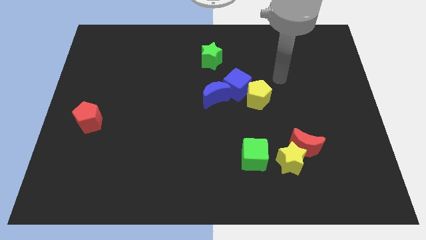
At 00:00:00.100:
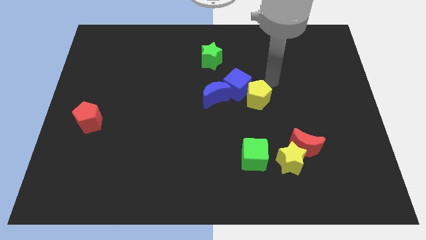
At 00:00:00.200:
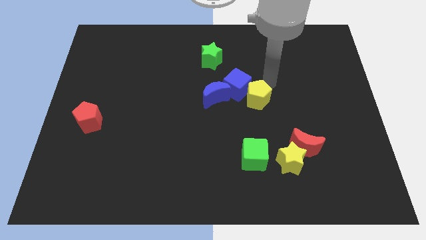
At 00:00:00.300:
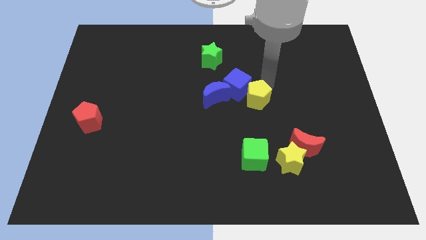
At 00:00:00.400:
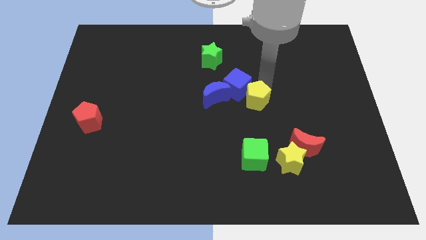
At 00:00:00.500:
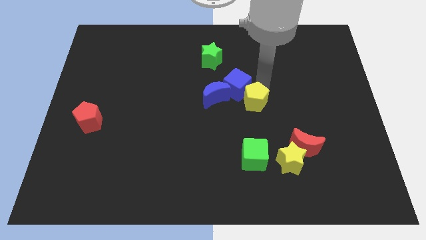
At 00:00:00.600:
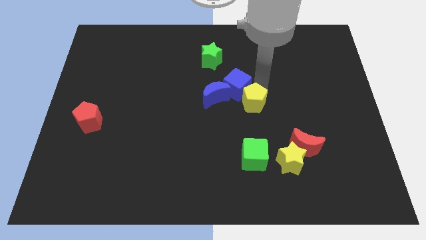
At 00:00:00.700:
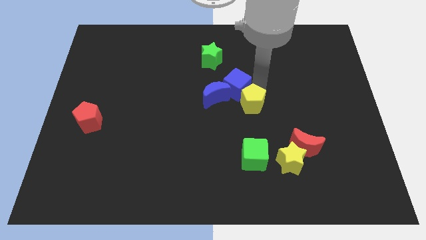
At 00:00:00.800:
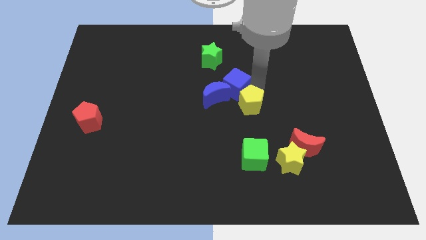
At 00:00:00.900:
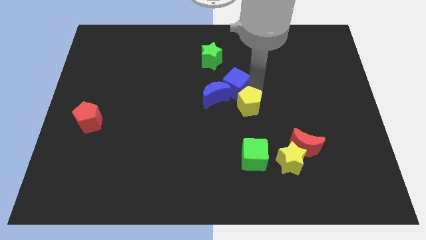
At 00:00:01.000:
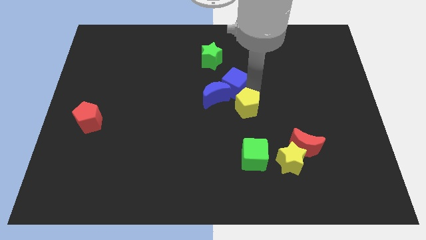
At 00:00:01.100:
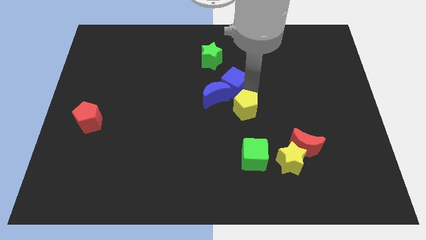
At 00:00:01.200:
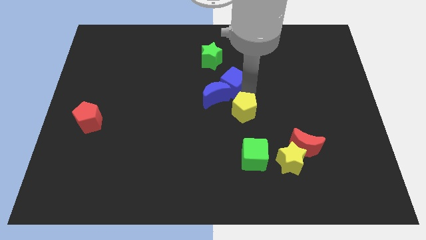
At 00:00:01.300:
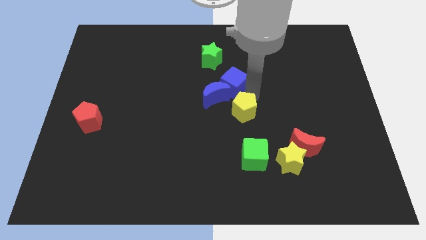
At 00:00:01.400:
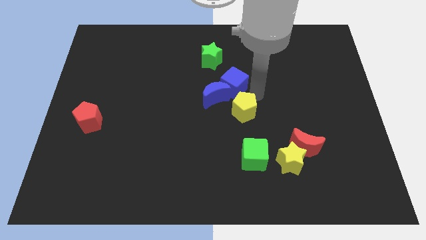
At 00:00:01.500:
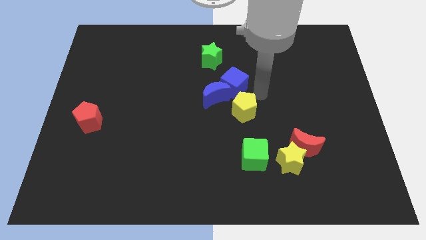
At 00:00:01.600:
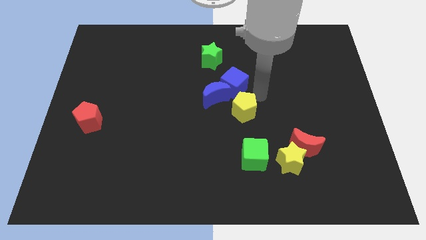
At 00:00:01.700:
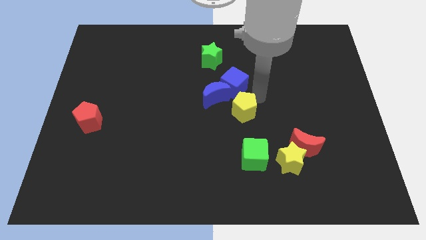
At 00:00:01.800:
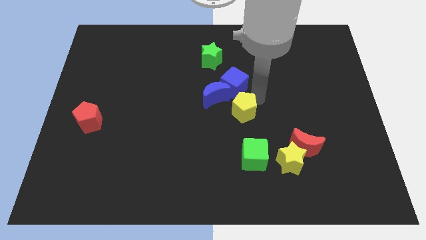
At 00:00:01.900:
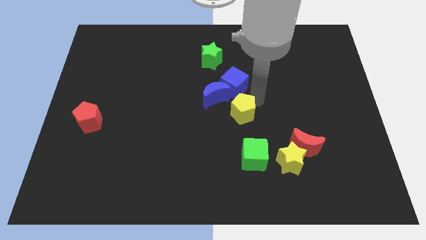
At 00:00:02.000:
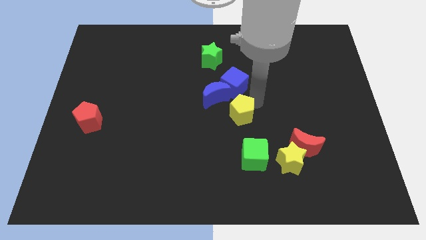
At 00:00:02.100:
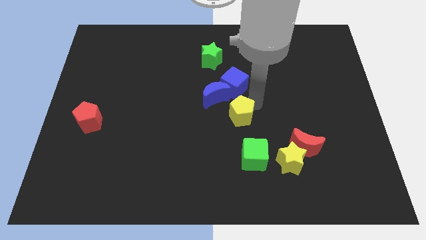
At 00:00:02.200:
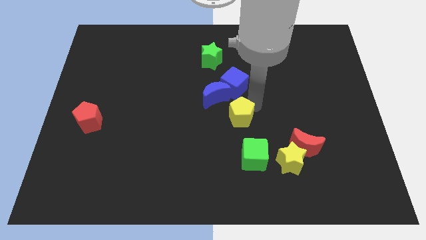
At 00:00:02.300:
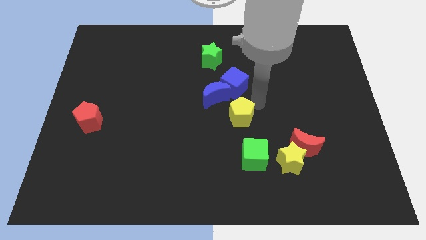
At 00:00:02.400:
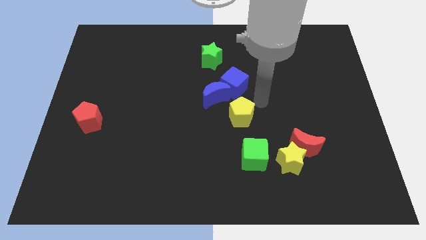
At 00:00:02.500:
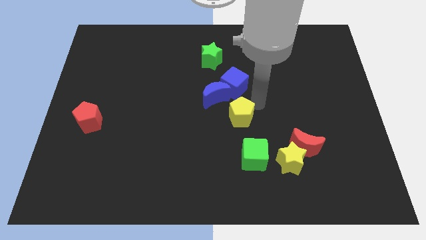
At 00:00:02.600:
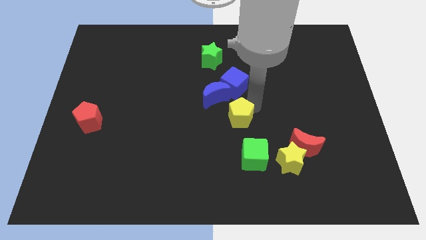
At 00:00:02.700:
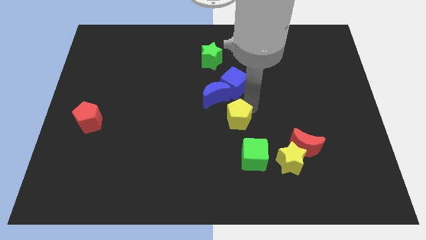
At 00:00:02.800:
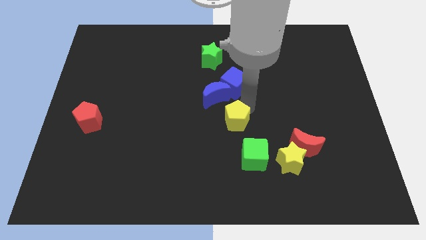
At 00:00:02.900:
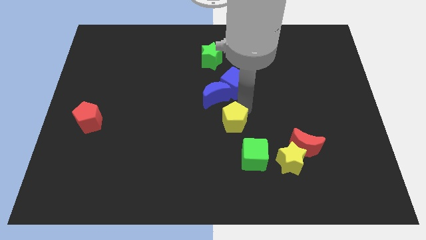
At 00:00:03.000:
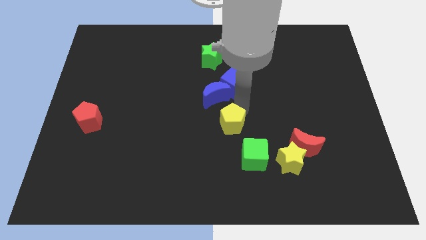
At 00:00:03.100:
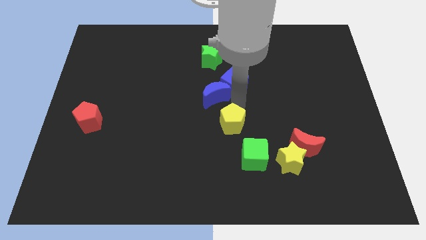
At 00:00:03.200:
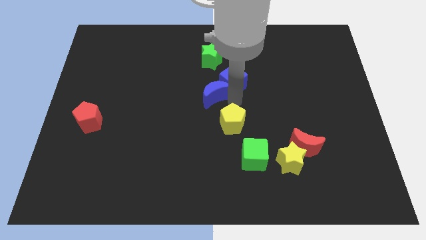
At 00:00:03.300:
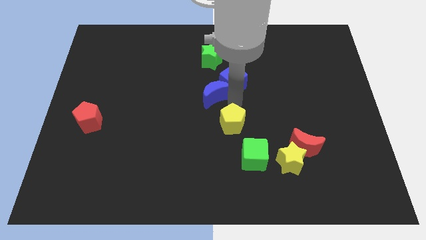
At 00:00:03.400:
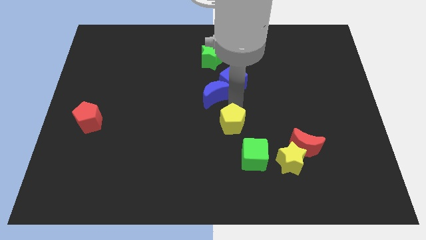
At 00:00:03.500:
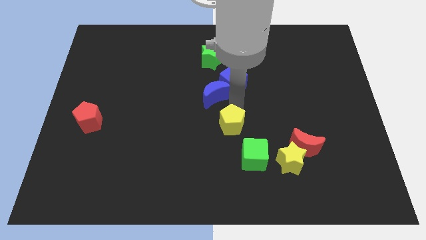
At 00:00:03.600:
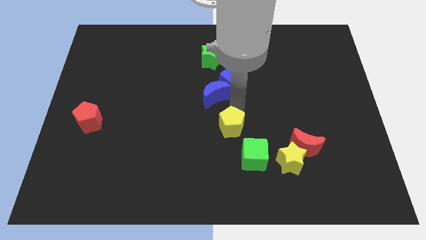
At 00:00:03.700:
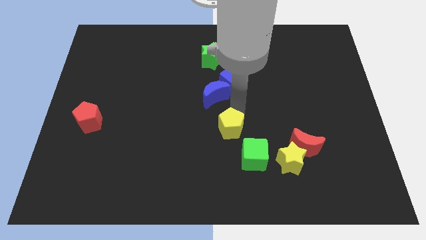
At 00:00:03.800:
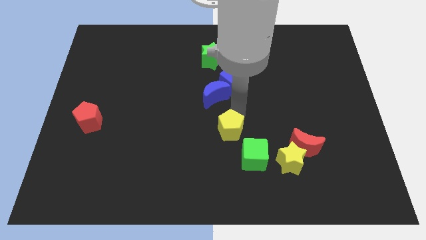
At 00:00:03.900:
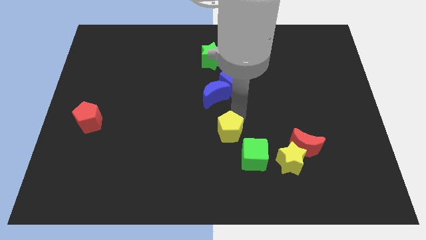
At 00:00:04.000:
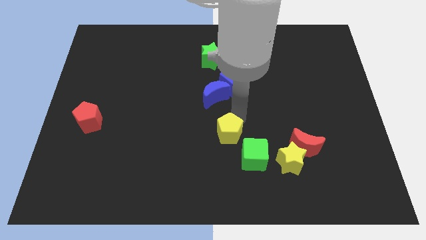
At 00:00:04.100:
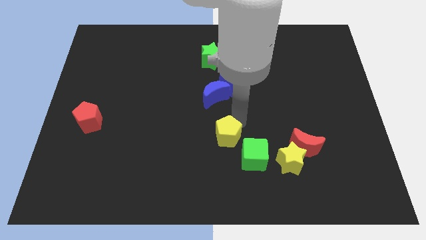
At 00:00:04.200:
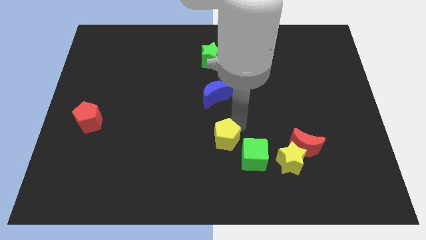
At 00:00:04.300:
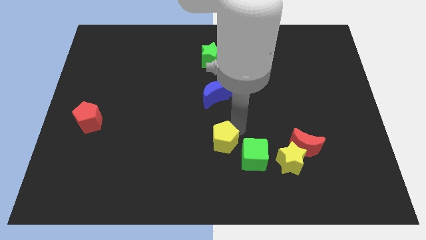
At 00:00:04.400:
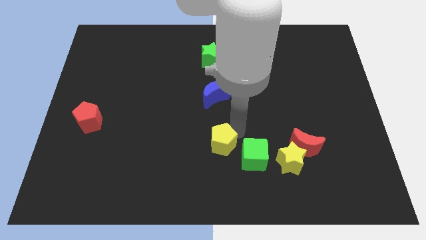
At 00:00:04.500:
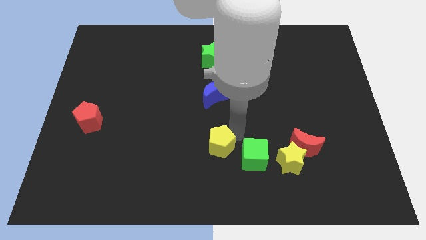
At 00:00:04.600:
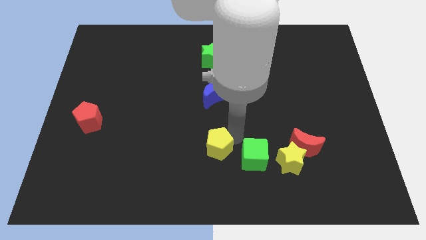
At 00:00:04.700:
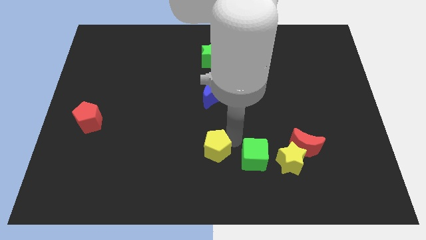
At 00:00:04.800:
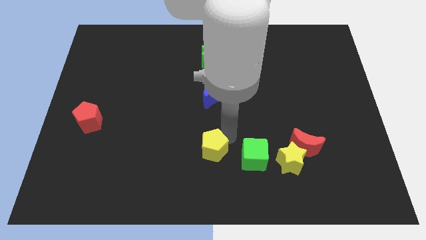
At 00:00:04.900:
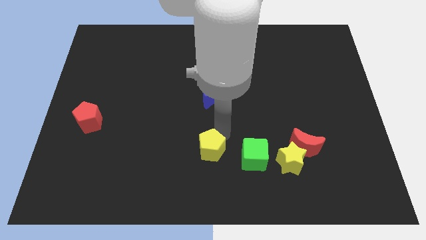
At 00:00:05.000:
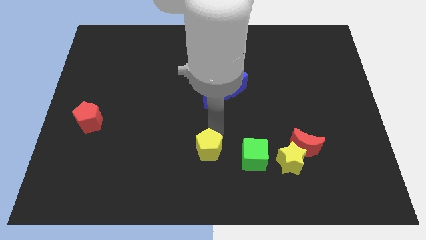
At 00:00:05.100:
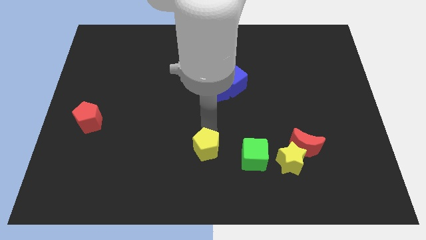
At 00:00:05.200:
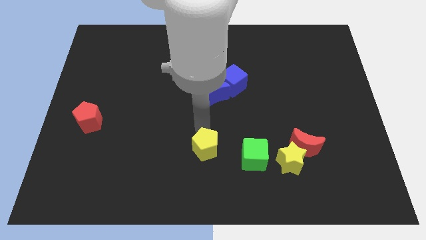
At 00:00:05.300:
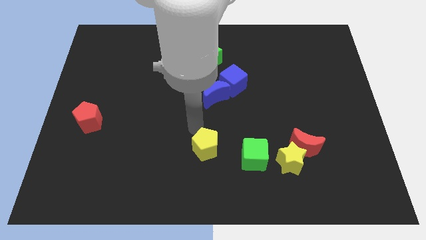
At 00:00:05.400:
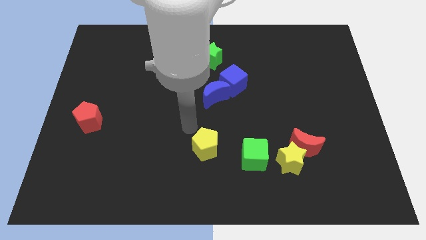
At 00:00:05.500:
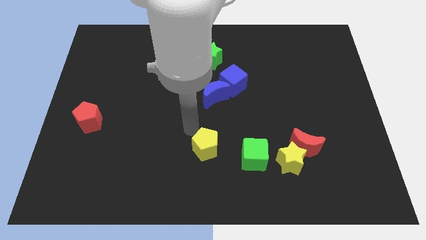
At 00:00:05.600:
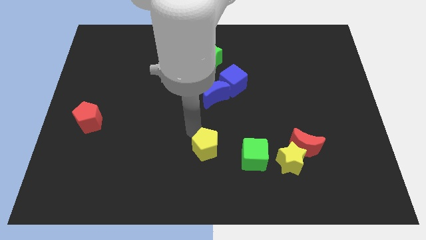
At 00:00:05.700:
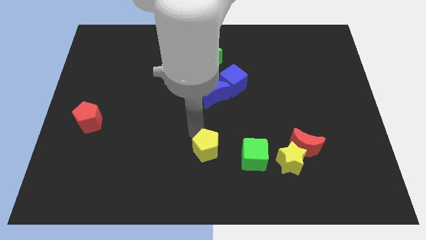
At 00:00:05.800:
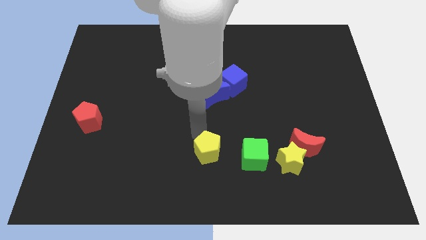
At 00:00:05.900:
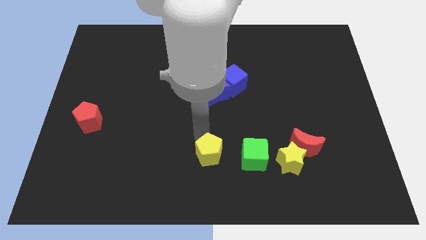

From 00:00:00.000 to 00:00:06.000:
move the yellow pentagon to the bottom

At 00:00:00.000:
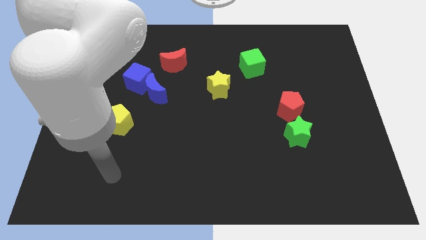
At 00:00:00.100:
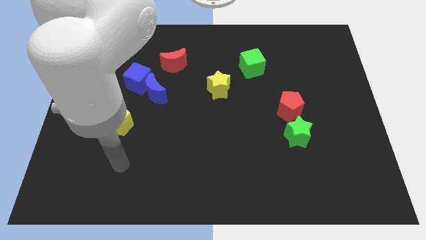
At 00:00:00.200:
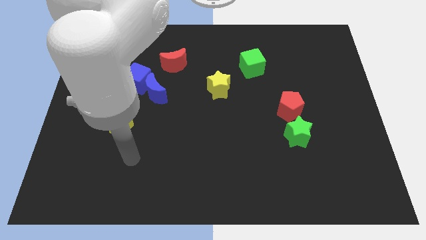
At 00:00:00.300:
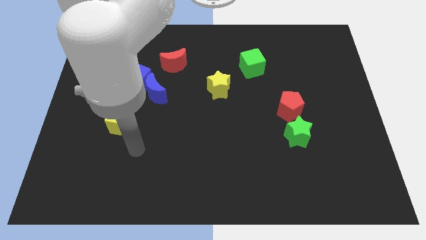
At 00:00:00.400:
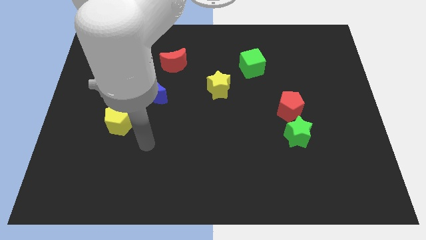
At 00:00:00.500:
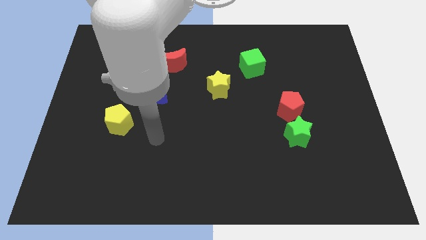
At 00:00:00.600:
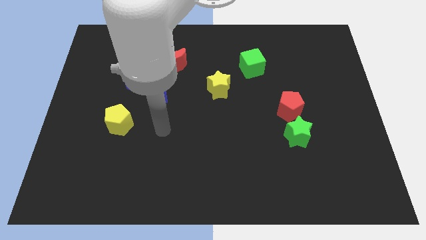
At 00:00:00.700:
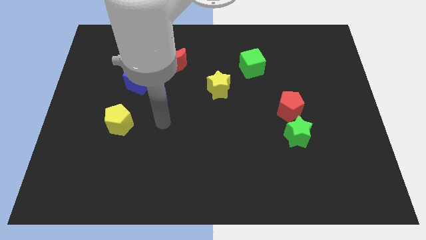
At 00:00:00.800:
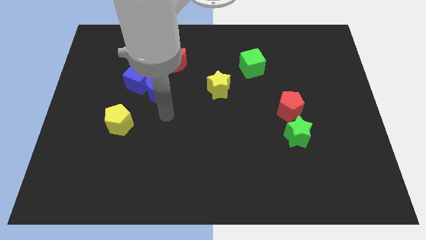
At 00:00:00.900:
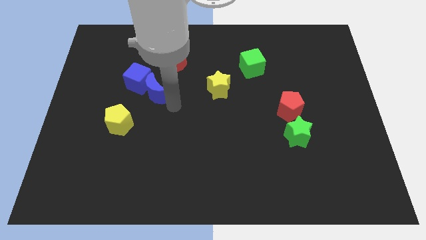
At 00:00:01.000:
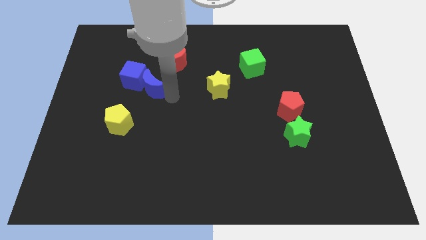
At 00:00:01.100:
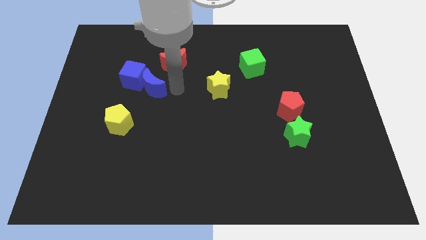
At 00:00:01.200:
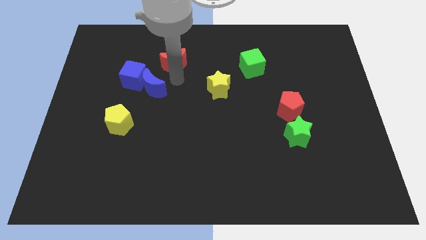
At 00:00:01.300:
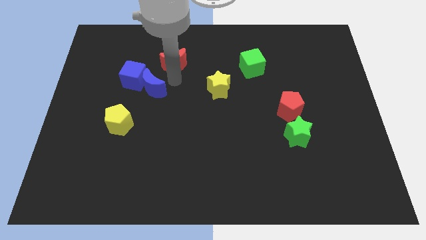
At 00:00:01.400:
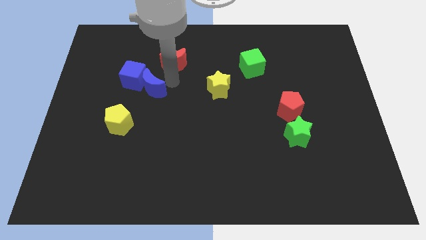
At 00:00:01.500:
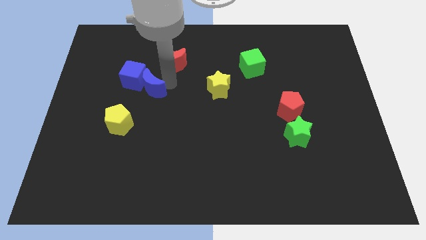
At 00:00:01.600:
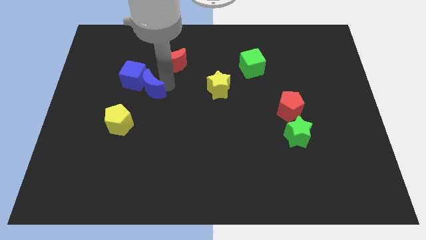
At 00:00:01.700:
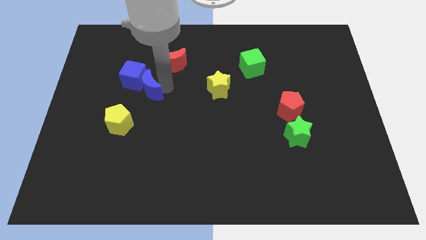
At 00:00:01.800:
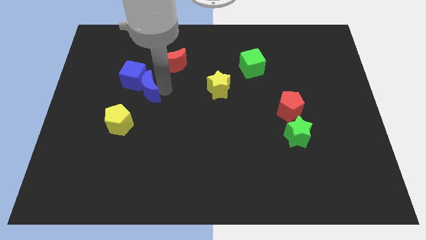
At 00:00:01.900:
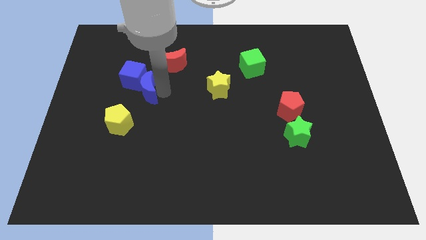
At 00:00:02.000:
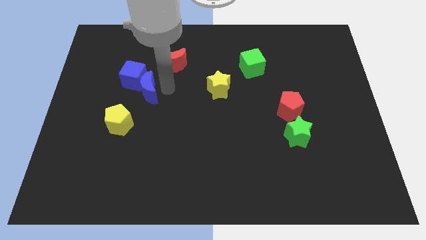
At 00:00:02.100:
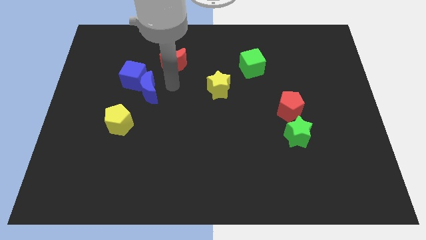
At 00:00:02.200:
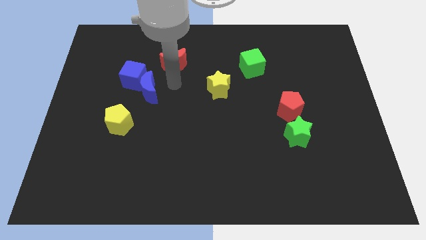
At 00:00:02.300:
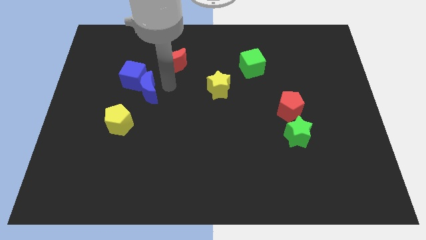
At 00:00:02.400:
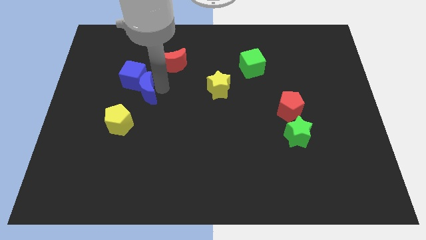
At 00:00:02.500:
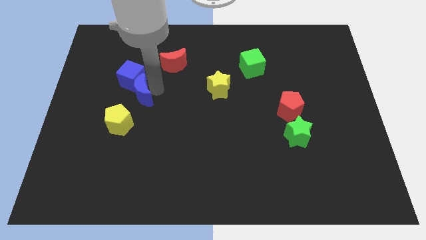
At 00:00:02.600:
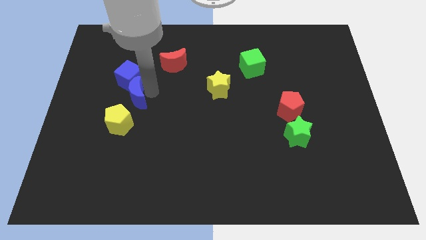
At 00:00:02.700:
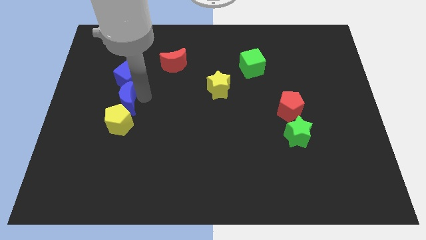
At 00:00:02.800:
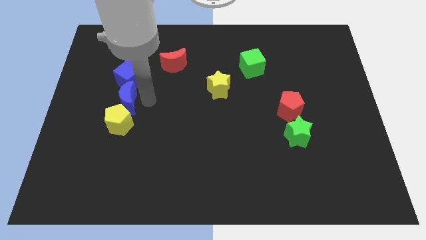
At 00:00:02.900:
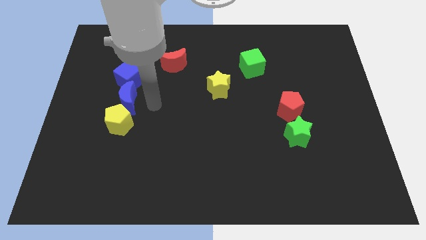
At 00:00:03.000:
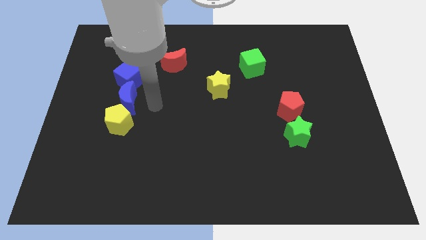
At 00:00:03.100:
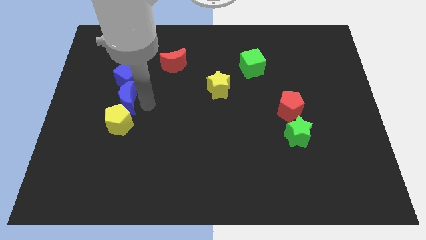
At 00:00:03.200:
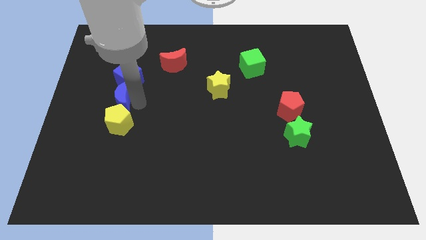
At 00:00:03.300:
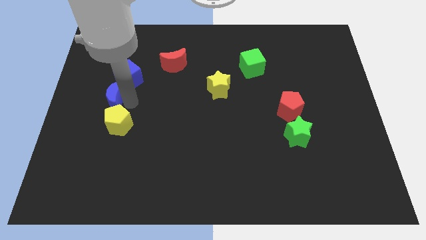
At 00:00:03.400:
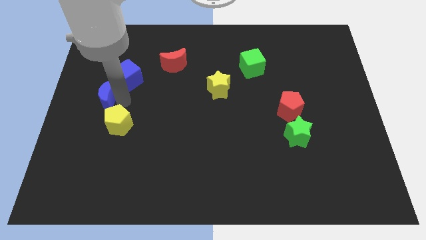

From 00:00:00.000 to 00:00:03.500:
slide the blue moon to the left side of the board
